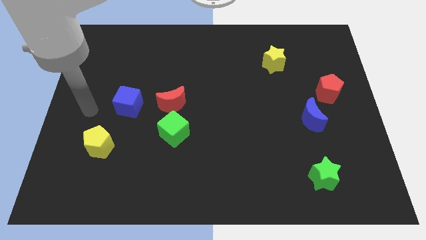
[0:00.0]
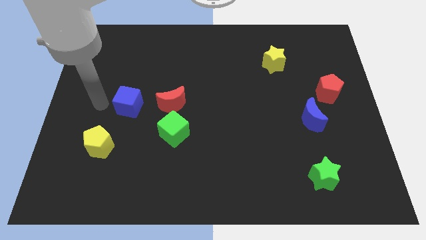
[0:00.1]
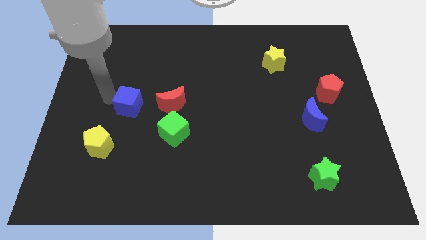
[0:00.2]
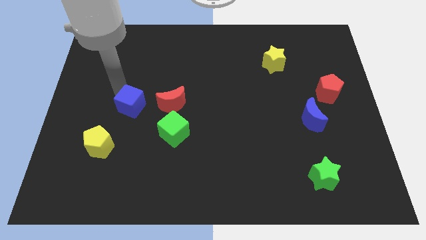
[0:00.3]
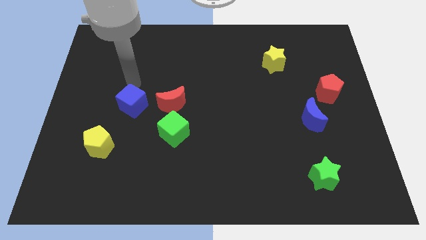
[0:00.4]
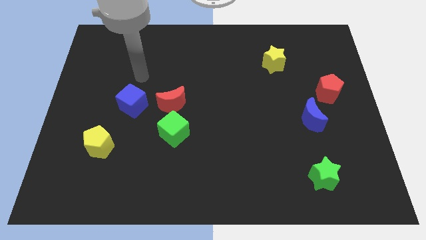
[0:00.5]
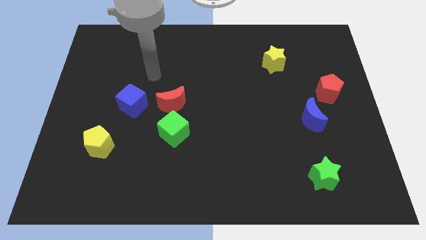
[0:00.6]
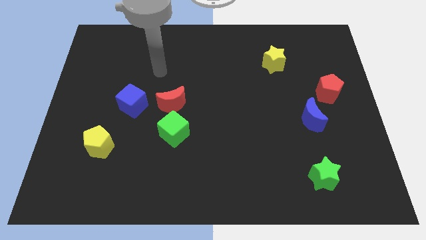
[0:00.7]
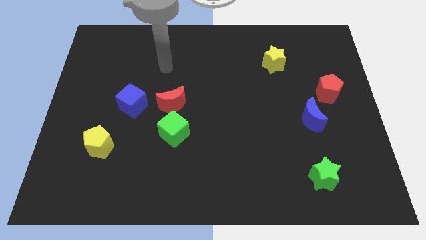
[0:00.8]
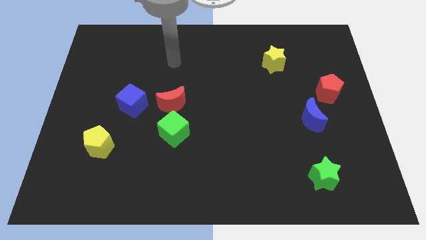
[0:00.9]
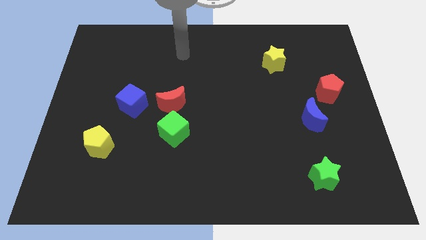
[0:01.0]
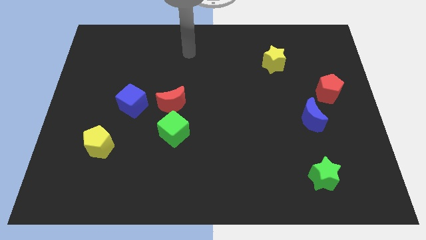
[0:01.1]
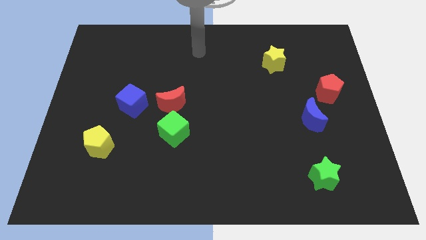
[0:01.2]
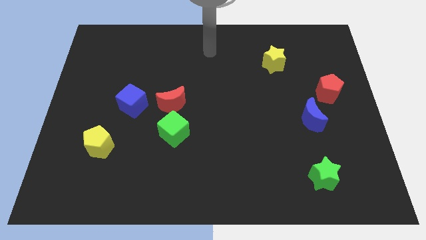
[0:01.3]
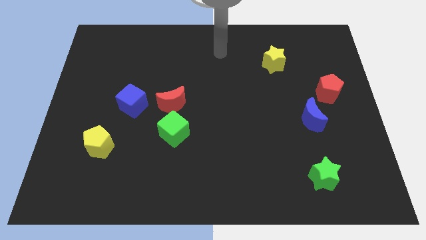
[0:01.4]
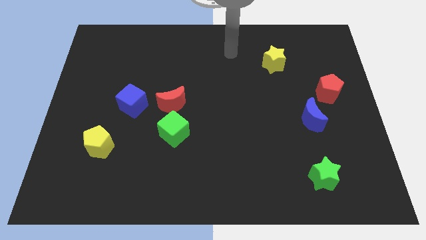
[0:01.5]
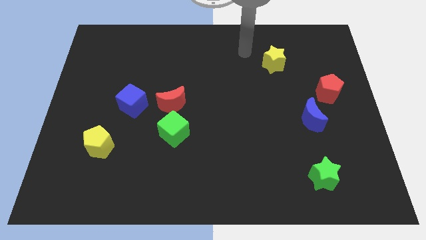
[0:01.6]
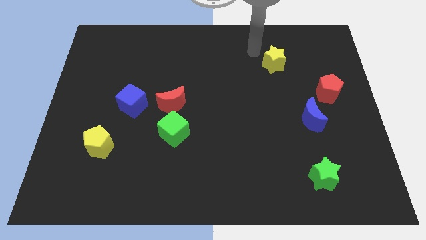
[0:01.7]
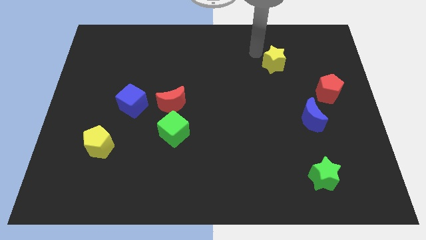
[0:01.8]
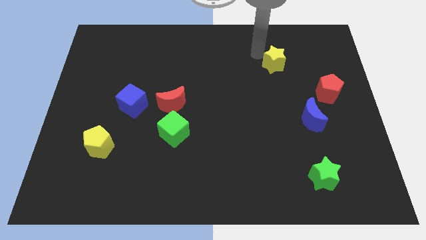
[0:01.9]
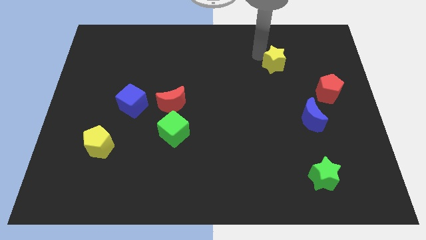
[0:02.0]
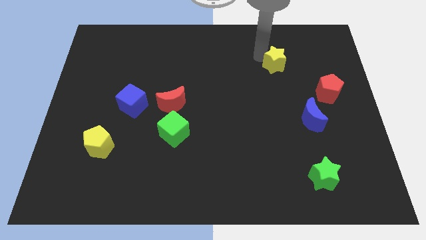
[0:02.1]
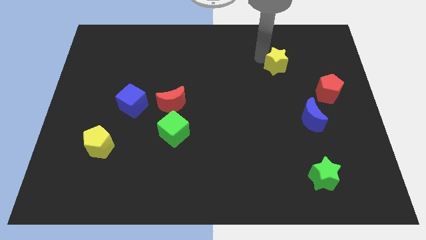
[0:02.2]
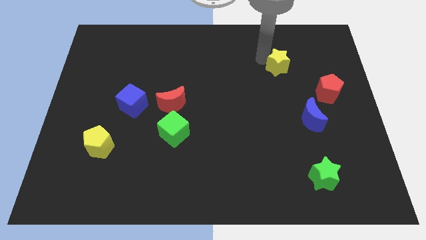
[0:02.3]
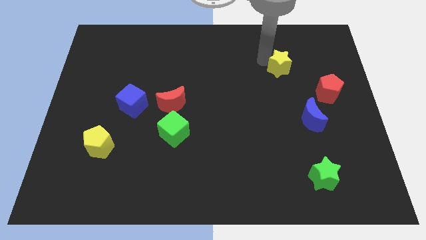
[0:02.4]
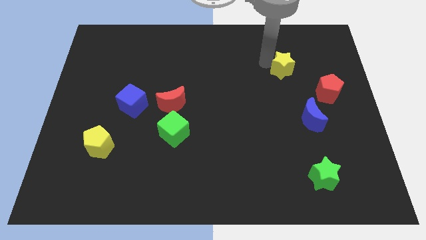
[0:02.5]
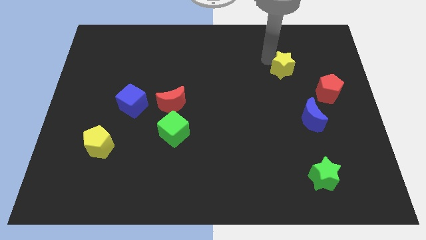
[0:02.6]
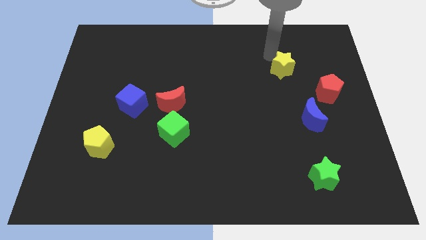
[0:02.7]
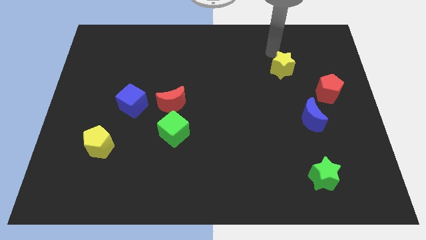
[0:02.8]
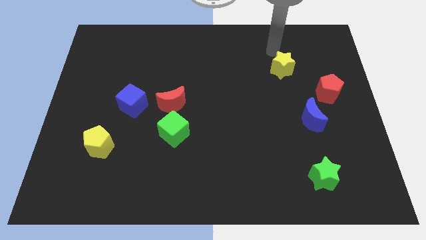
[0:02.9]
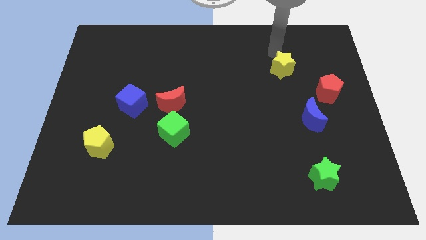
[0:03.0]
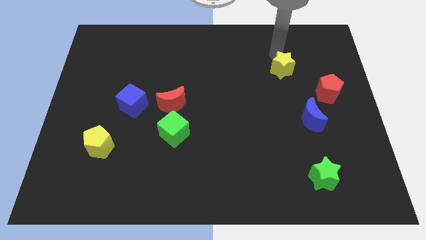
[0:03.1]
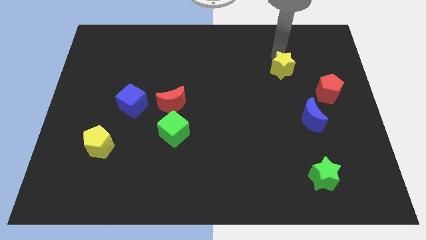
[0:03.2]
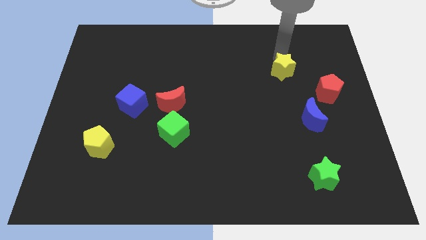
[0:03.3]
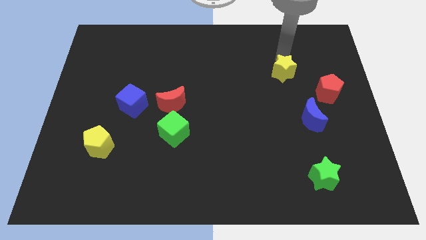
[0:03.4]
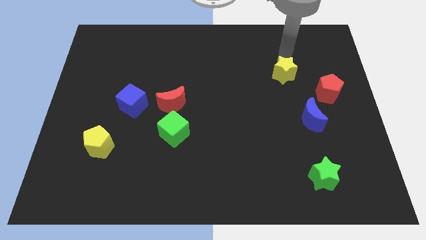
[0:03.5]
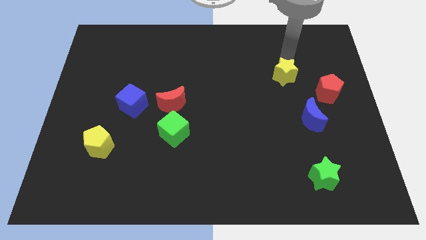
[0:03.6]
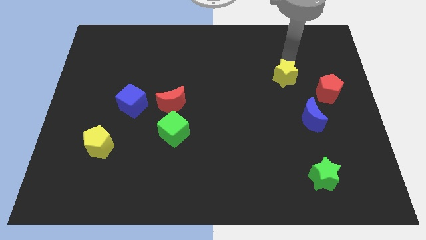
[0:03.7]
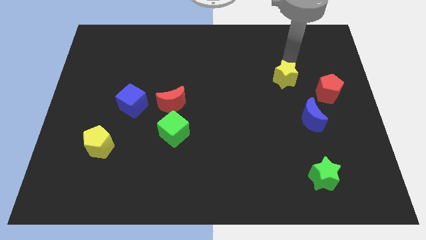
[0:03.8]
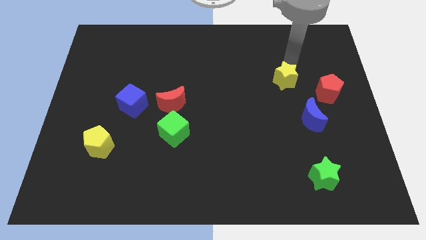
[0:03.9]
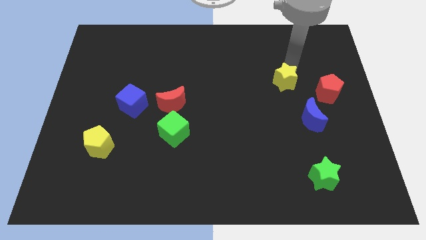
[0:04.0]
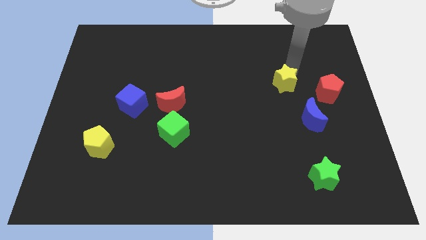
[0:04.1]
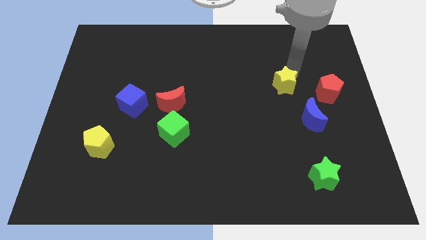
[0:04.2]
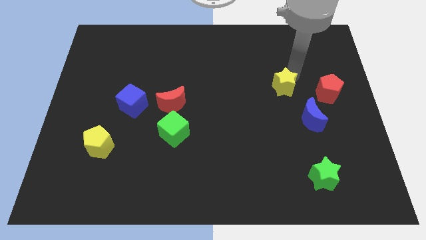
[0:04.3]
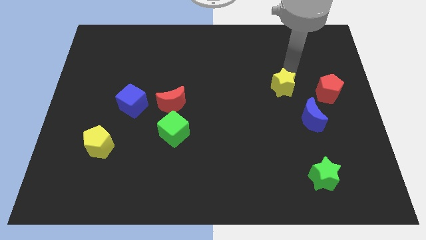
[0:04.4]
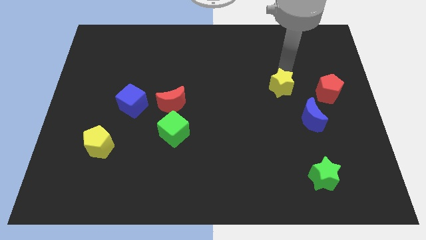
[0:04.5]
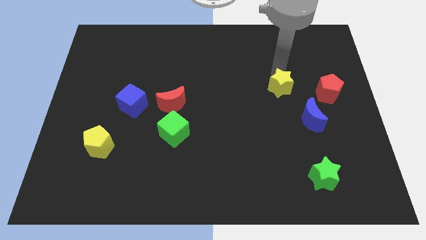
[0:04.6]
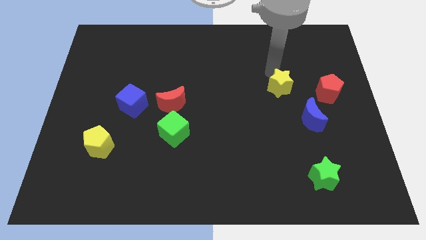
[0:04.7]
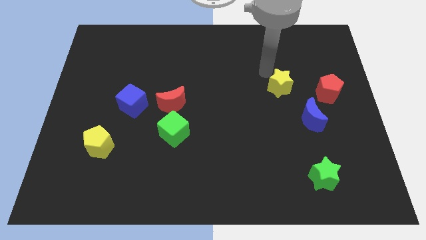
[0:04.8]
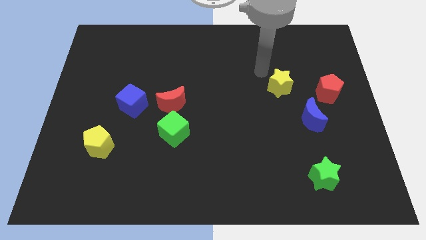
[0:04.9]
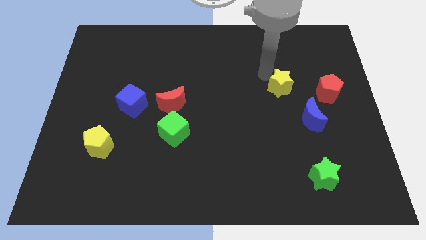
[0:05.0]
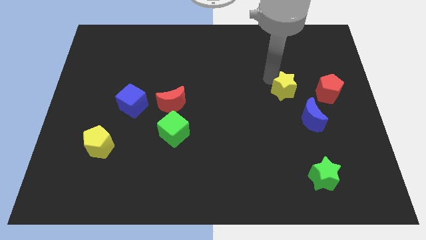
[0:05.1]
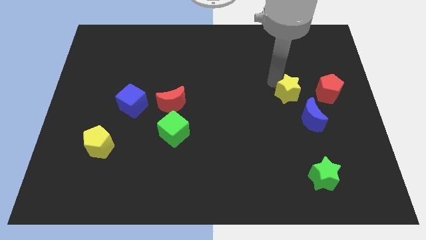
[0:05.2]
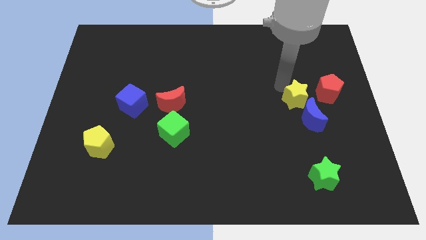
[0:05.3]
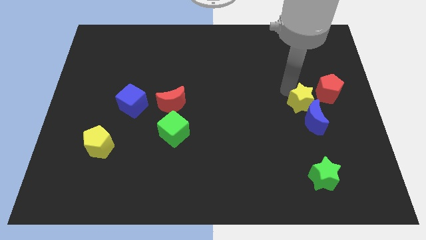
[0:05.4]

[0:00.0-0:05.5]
push the yellow star towards the blue moon
